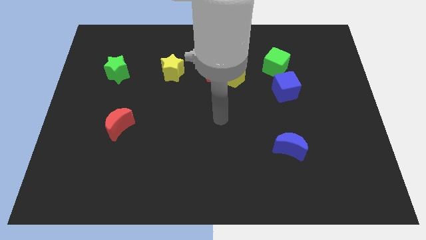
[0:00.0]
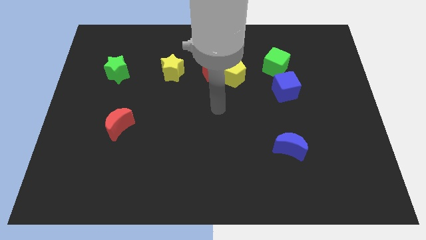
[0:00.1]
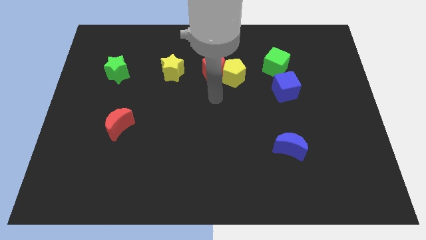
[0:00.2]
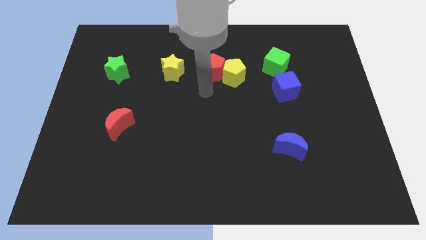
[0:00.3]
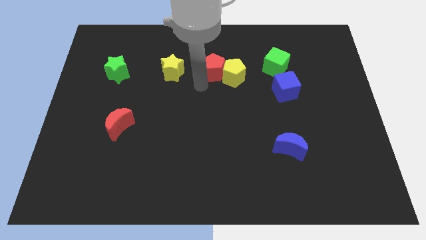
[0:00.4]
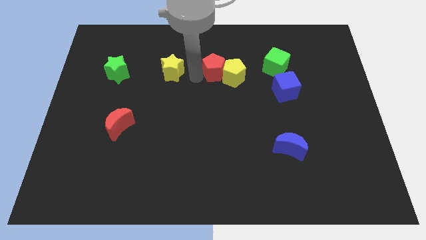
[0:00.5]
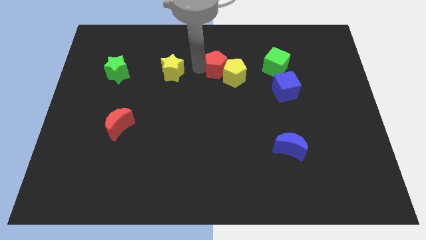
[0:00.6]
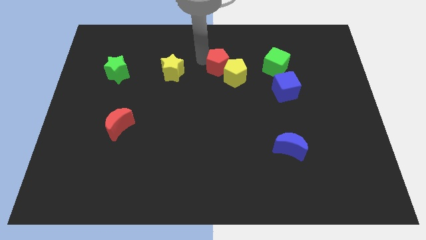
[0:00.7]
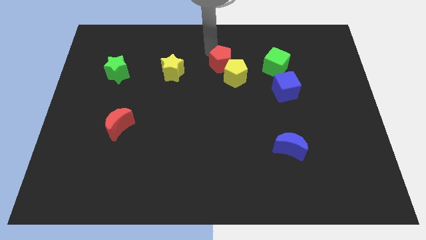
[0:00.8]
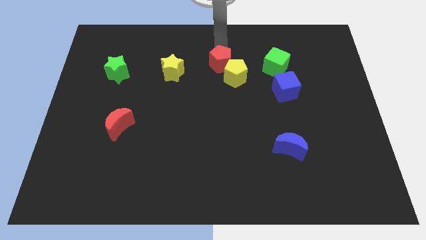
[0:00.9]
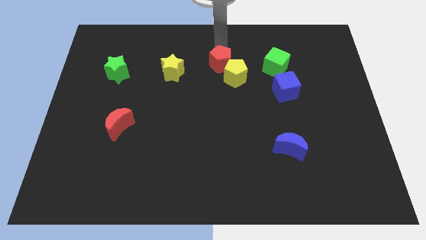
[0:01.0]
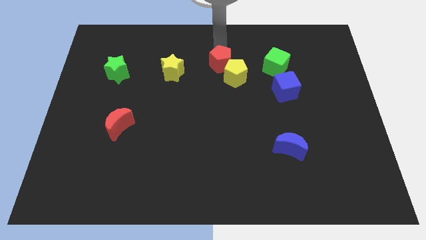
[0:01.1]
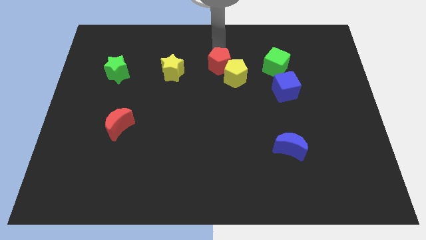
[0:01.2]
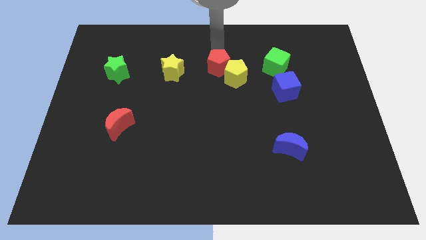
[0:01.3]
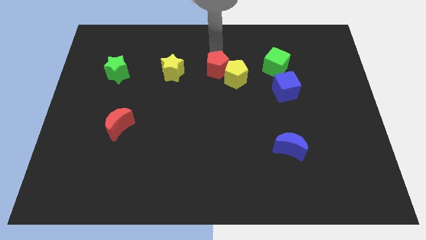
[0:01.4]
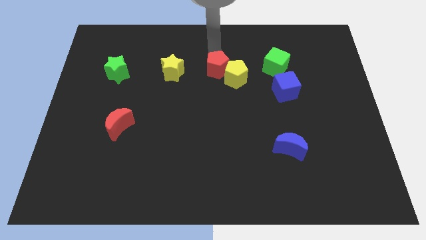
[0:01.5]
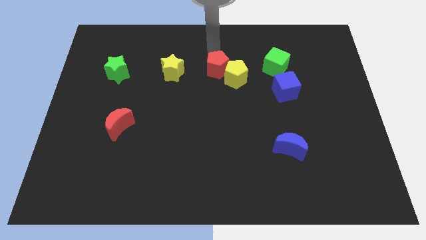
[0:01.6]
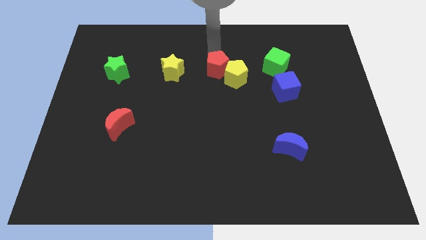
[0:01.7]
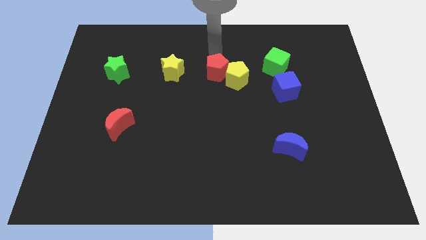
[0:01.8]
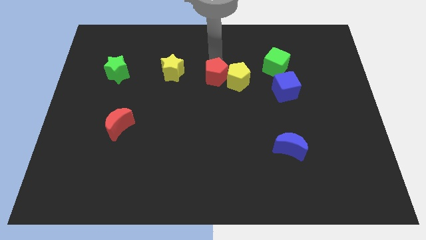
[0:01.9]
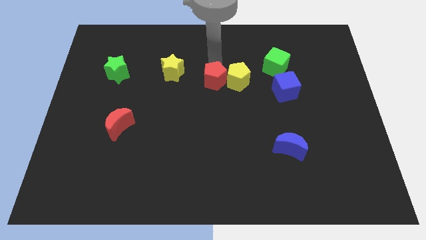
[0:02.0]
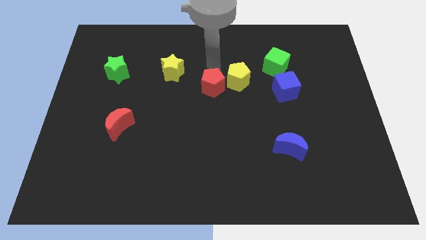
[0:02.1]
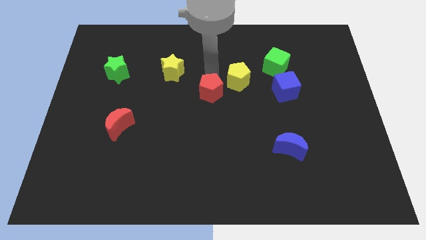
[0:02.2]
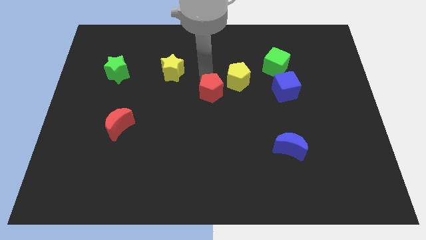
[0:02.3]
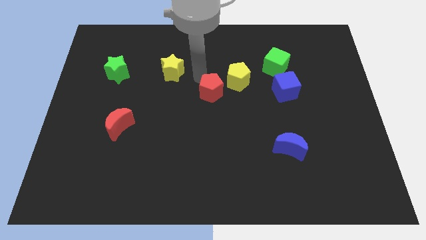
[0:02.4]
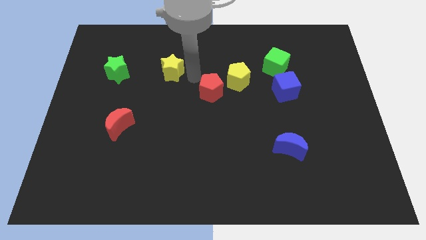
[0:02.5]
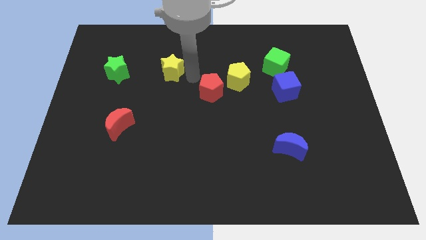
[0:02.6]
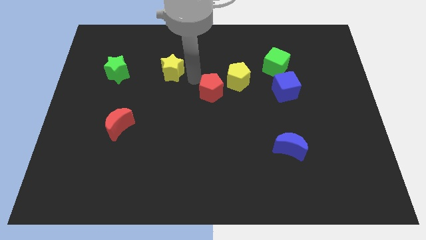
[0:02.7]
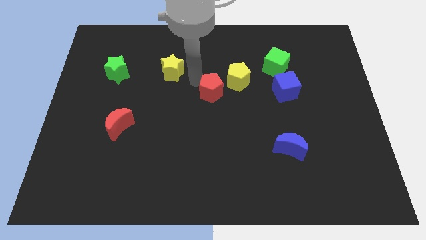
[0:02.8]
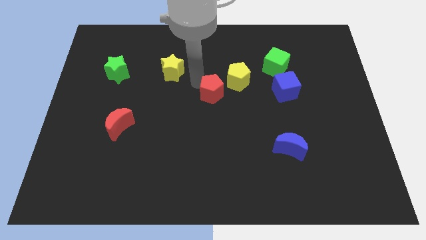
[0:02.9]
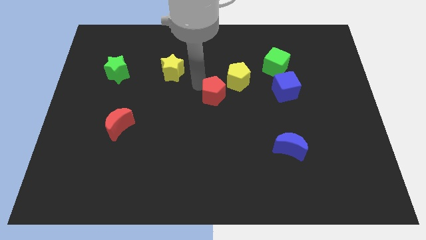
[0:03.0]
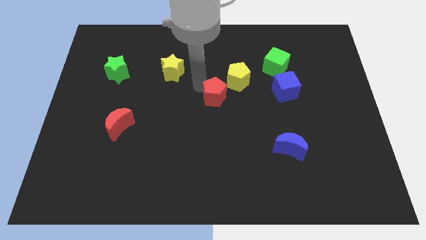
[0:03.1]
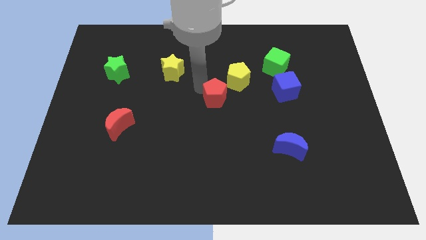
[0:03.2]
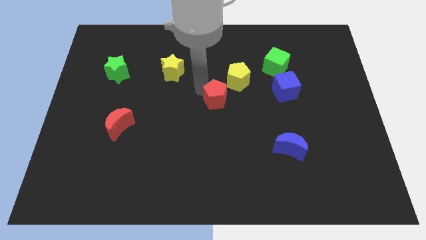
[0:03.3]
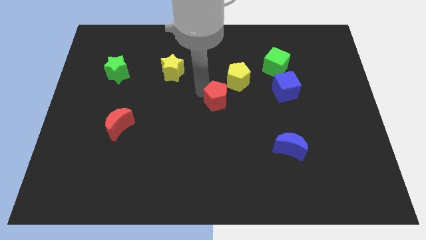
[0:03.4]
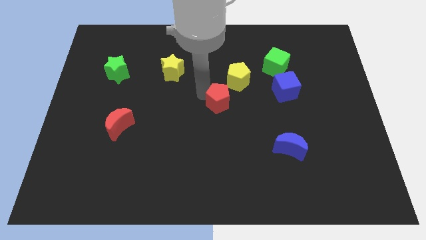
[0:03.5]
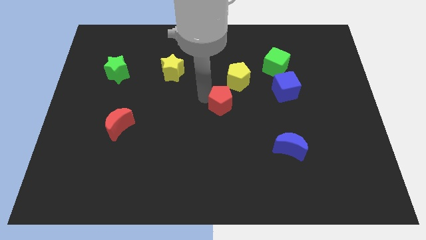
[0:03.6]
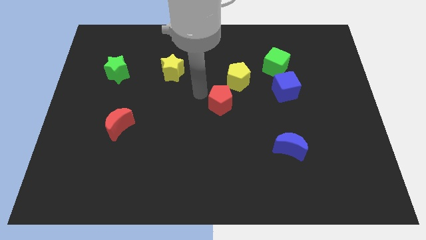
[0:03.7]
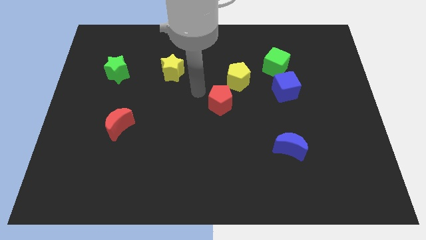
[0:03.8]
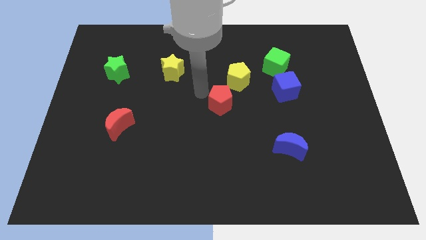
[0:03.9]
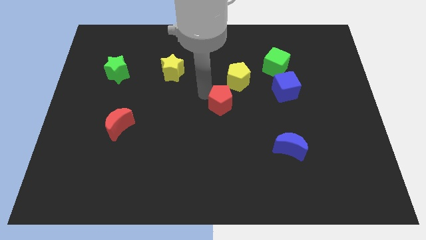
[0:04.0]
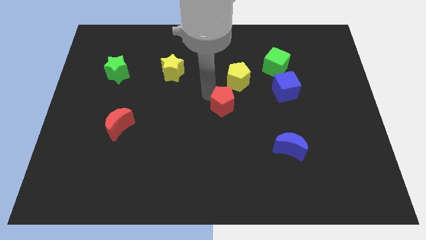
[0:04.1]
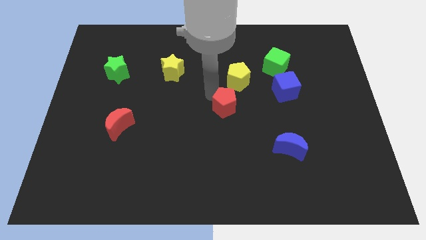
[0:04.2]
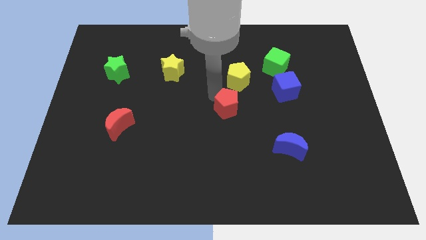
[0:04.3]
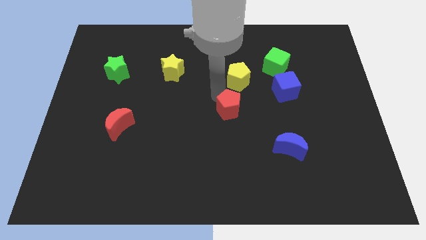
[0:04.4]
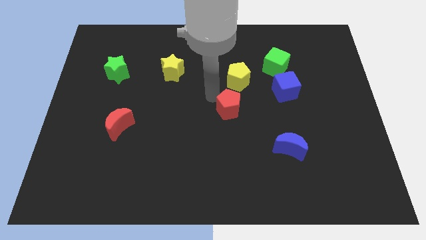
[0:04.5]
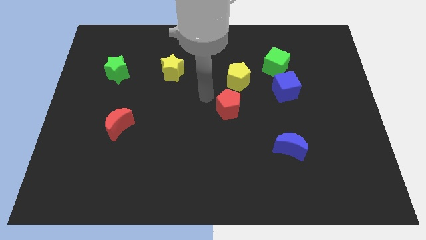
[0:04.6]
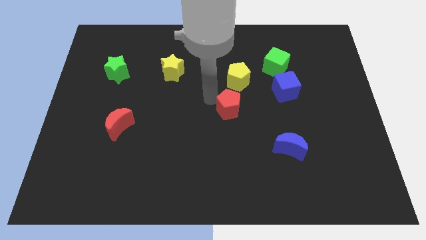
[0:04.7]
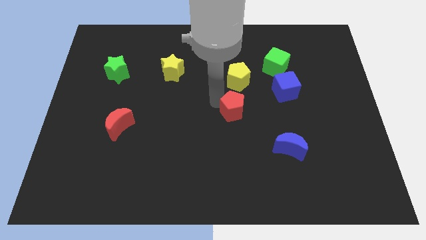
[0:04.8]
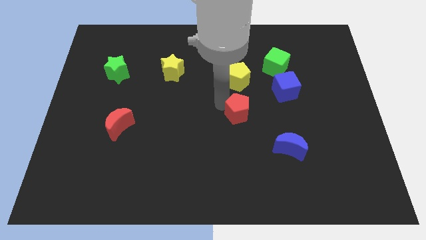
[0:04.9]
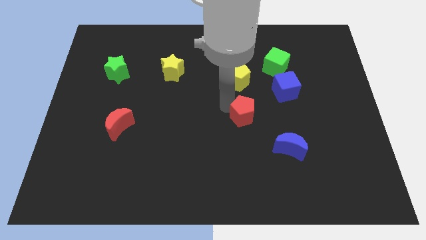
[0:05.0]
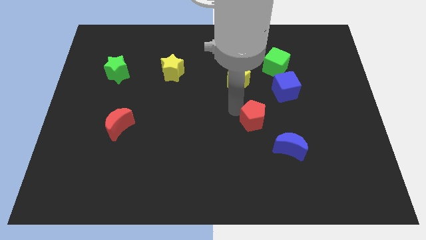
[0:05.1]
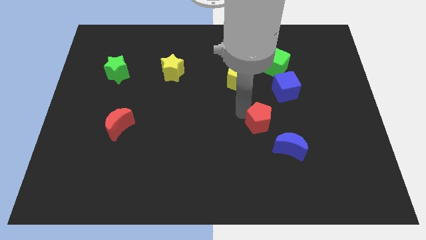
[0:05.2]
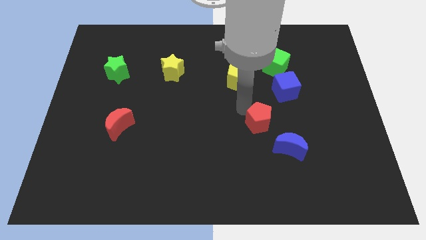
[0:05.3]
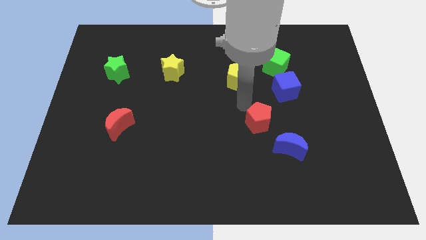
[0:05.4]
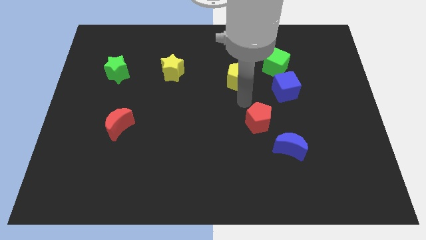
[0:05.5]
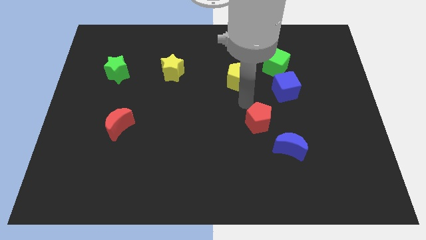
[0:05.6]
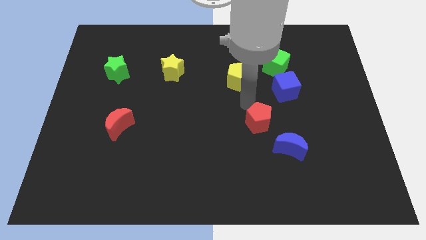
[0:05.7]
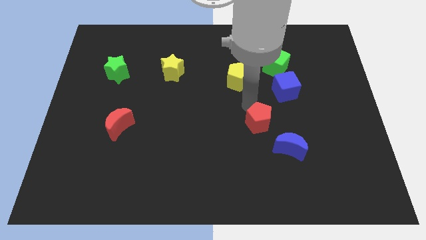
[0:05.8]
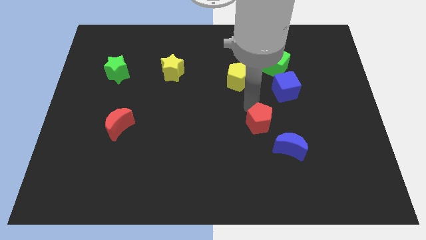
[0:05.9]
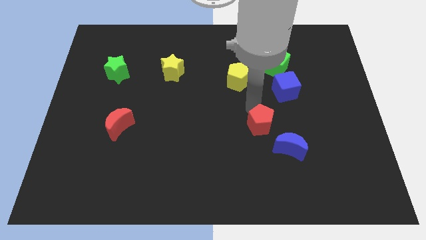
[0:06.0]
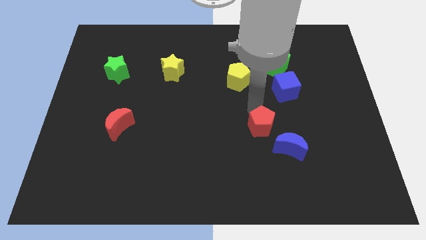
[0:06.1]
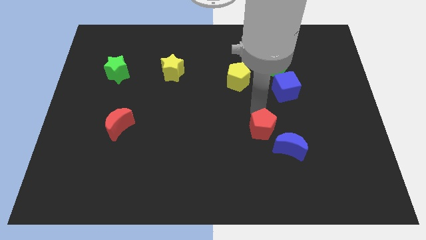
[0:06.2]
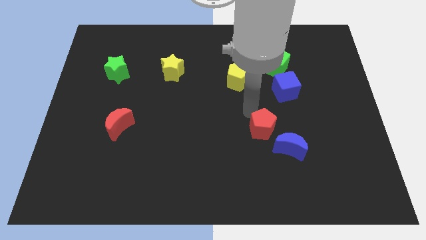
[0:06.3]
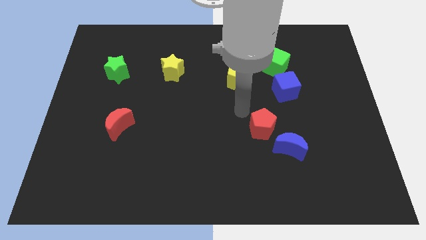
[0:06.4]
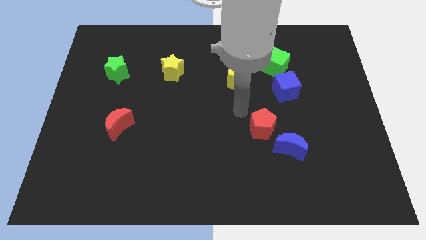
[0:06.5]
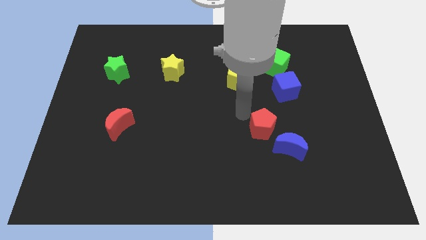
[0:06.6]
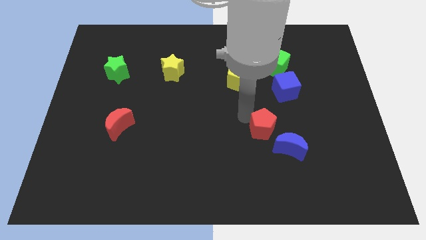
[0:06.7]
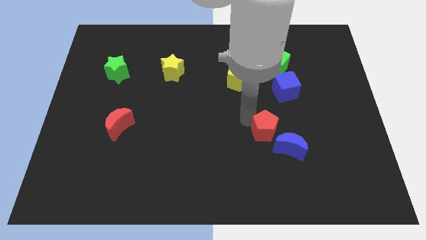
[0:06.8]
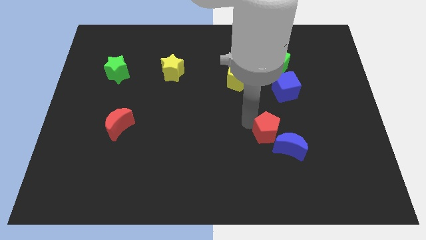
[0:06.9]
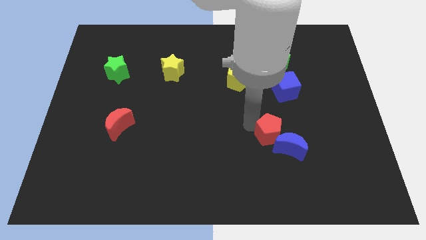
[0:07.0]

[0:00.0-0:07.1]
slide the red pentagon next to the blue moon
